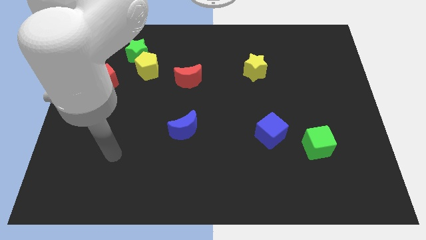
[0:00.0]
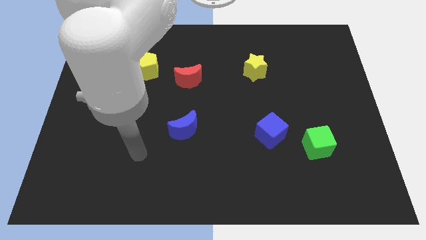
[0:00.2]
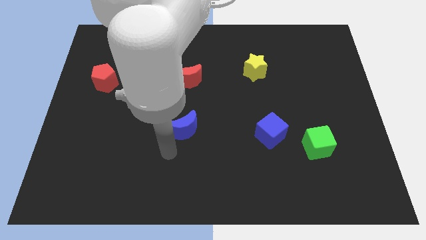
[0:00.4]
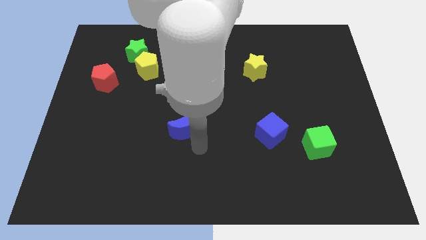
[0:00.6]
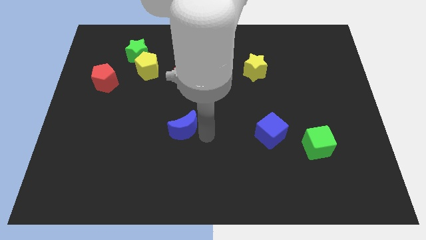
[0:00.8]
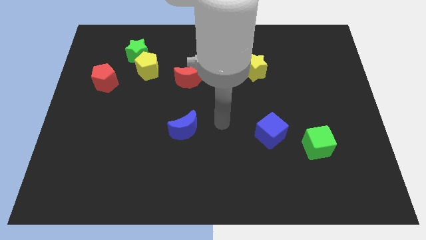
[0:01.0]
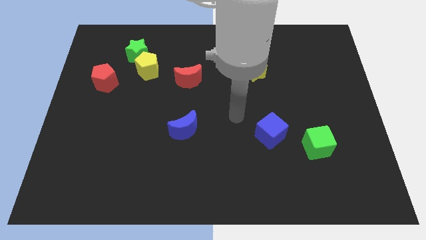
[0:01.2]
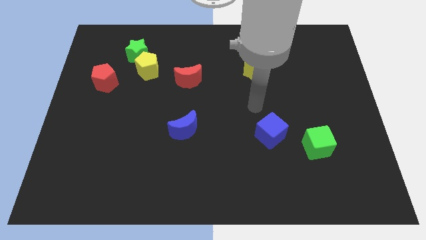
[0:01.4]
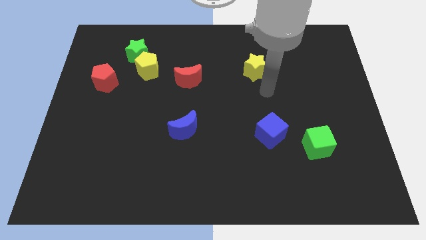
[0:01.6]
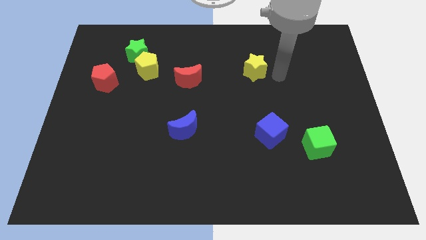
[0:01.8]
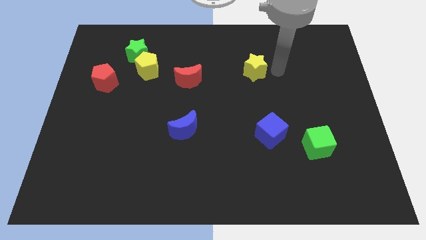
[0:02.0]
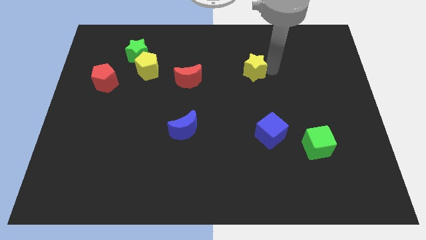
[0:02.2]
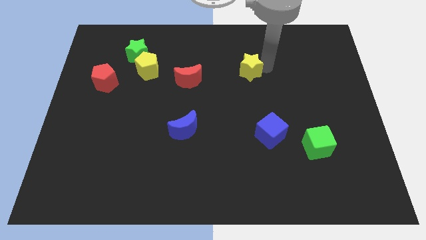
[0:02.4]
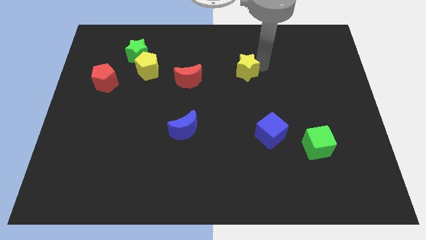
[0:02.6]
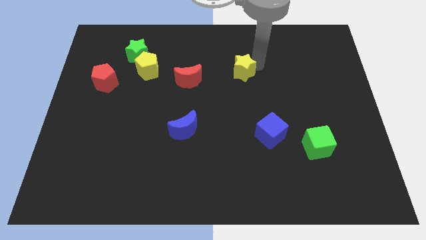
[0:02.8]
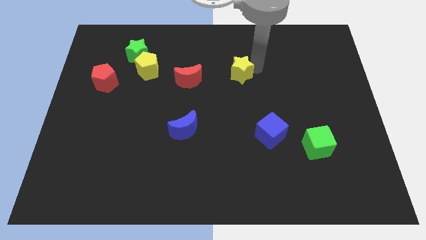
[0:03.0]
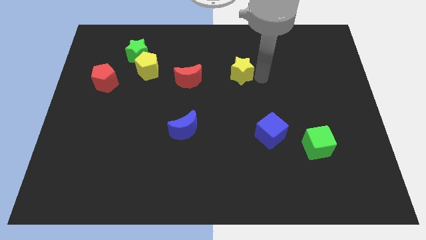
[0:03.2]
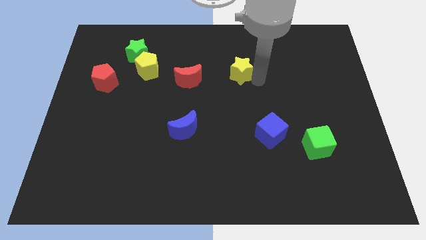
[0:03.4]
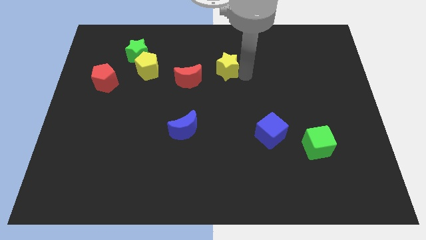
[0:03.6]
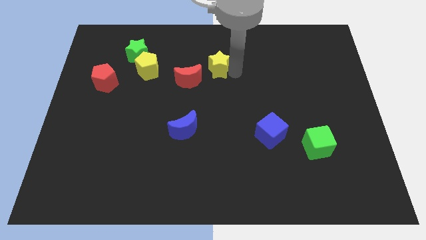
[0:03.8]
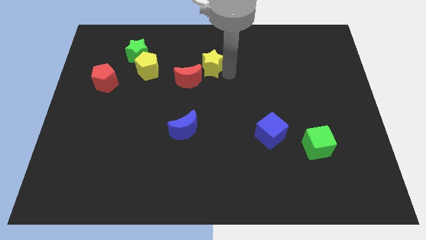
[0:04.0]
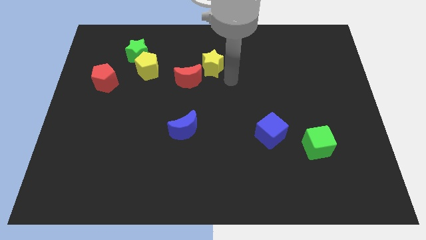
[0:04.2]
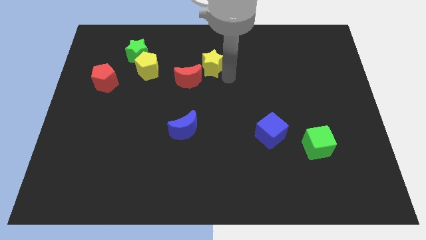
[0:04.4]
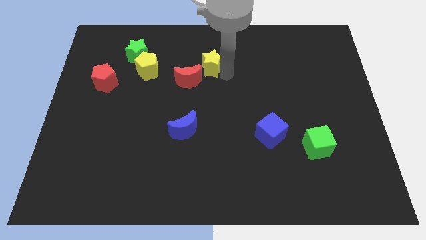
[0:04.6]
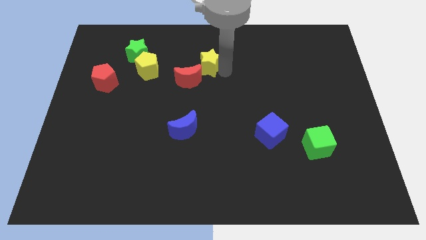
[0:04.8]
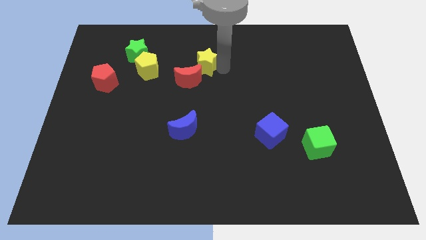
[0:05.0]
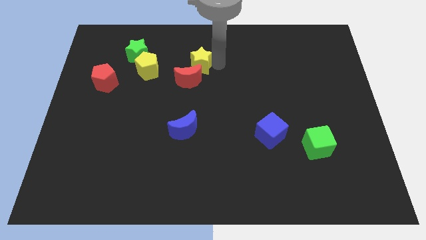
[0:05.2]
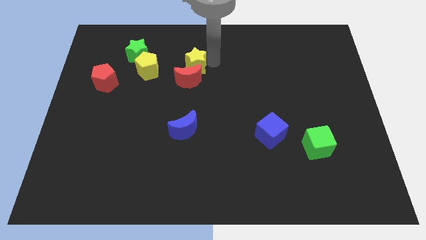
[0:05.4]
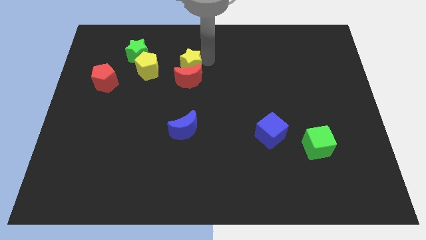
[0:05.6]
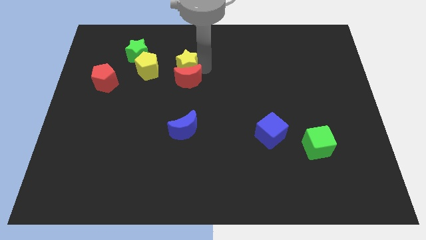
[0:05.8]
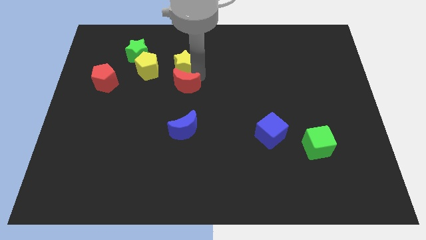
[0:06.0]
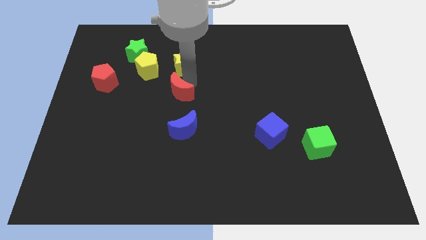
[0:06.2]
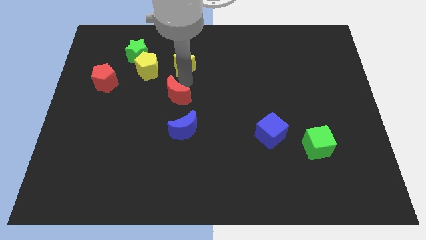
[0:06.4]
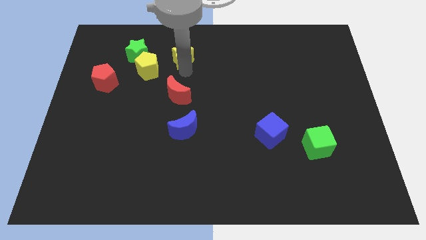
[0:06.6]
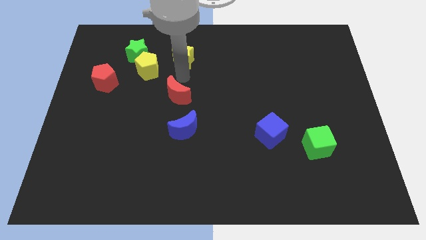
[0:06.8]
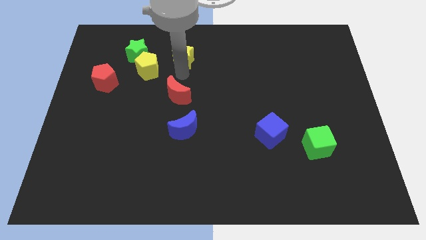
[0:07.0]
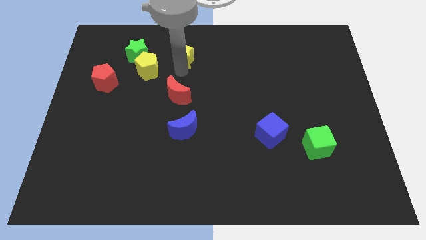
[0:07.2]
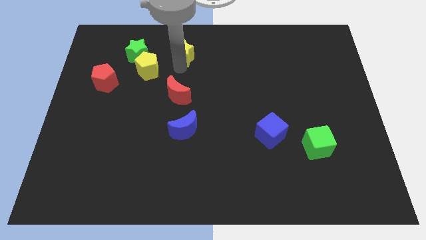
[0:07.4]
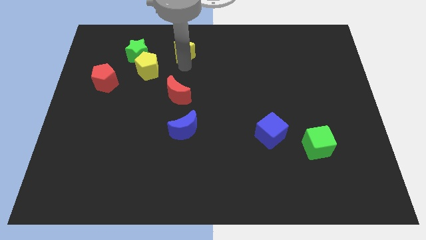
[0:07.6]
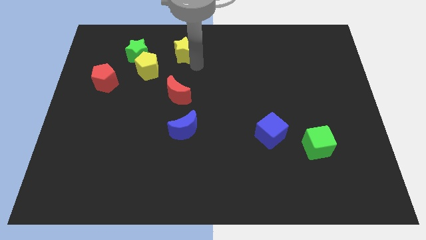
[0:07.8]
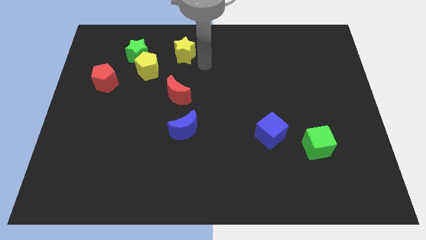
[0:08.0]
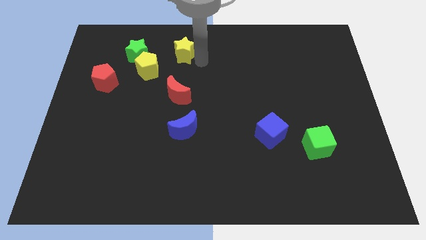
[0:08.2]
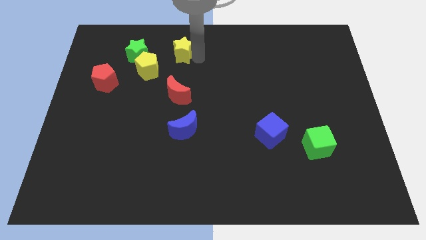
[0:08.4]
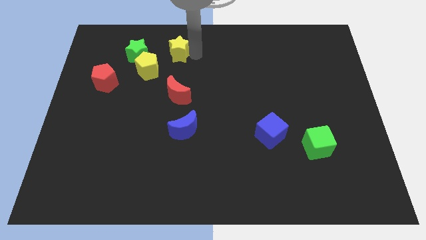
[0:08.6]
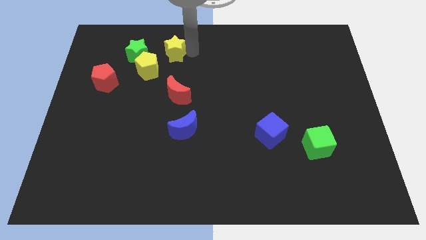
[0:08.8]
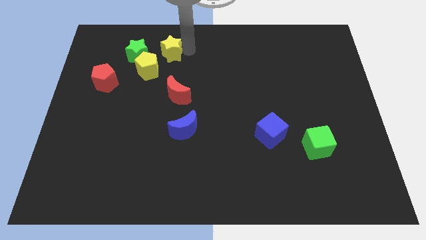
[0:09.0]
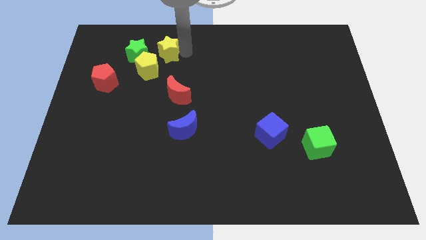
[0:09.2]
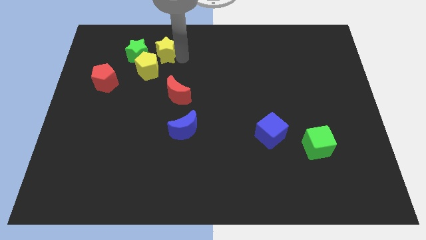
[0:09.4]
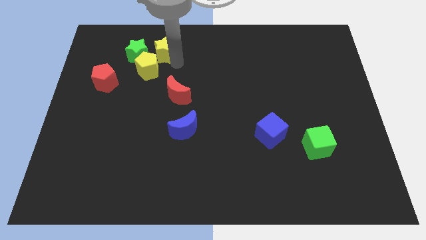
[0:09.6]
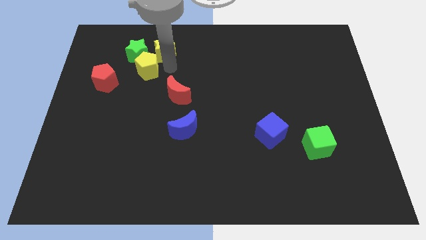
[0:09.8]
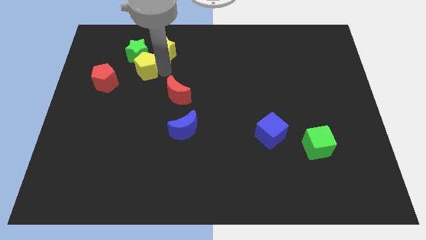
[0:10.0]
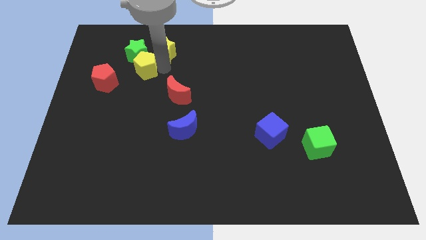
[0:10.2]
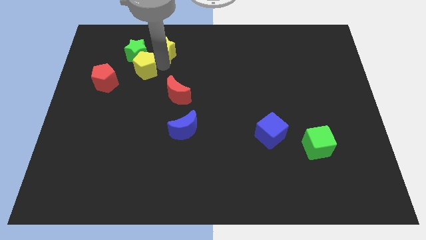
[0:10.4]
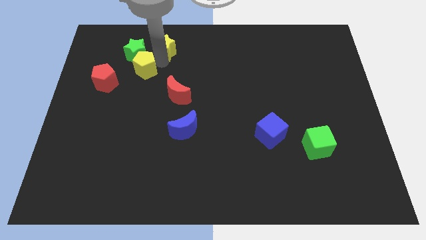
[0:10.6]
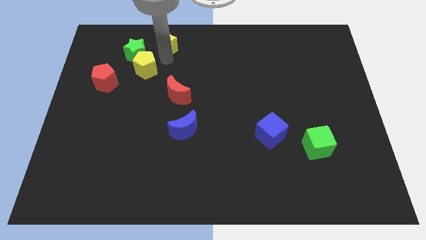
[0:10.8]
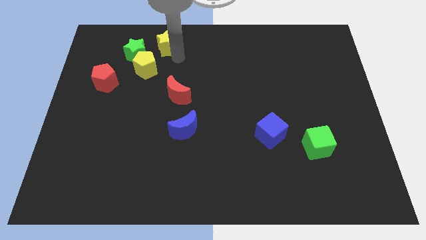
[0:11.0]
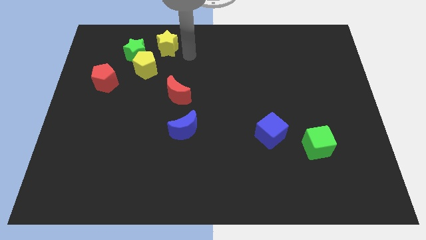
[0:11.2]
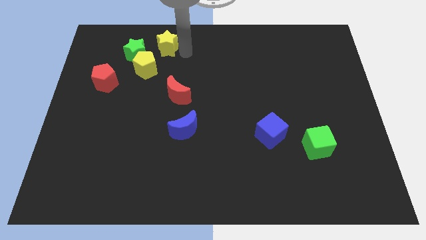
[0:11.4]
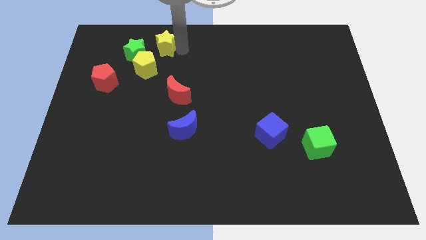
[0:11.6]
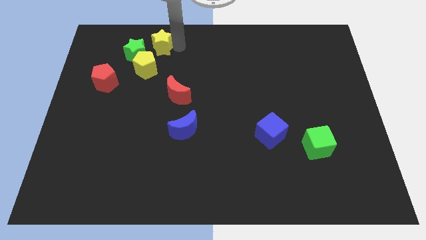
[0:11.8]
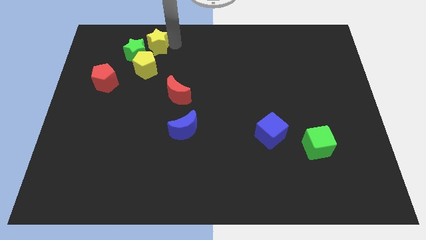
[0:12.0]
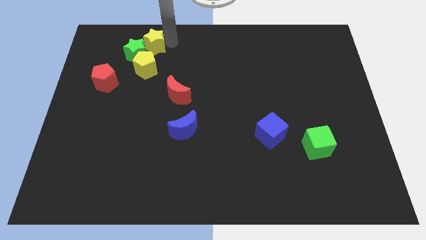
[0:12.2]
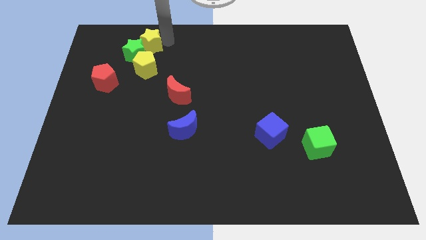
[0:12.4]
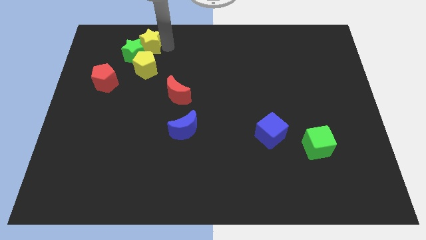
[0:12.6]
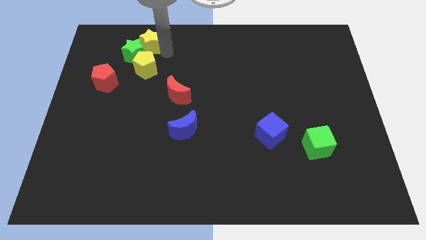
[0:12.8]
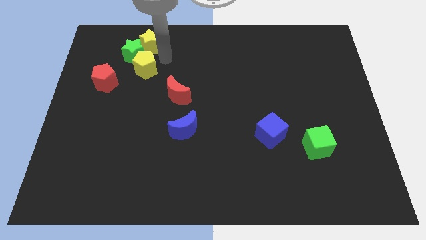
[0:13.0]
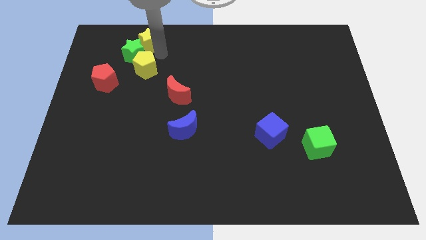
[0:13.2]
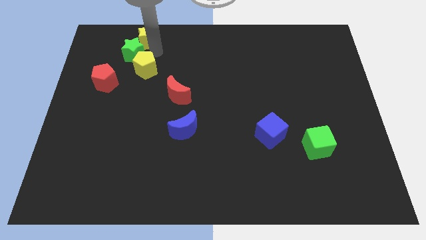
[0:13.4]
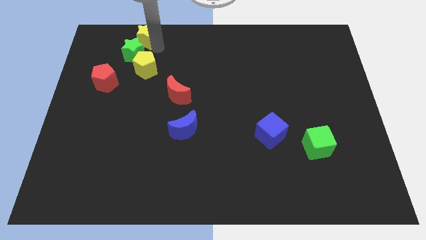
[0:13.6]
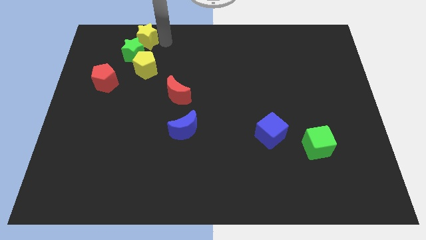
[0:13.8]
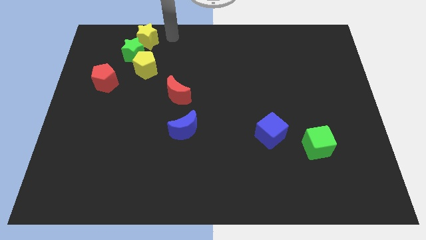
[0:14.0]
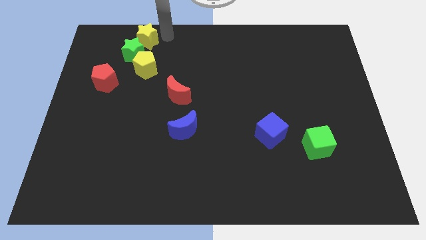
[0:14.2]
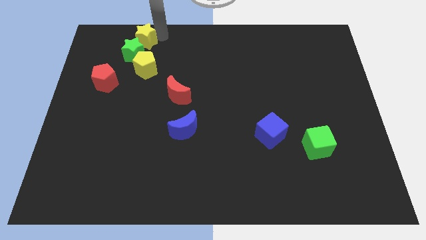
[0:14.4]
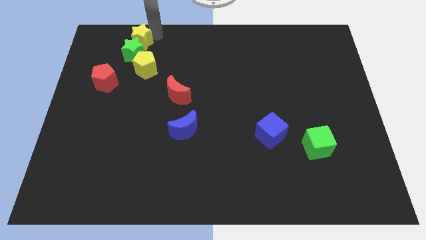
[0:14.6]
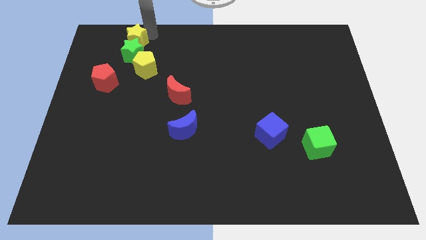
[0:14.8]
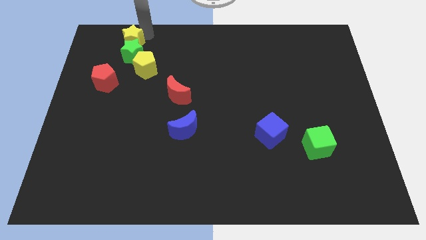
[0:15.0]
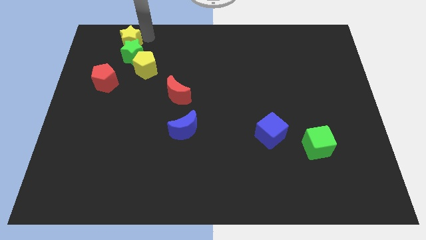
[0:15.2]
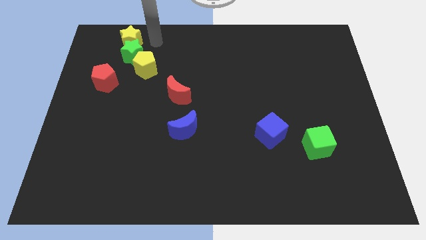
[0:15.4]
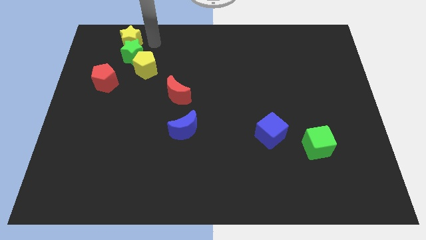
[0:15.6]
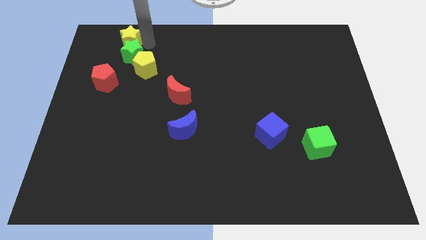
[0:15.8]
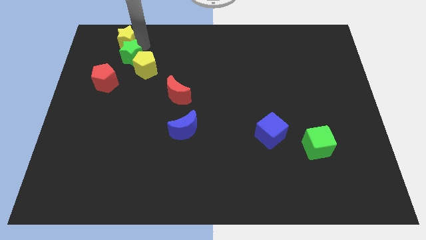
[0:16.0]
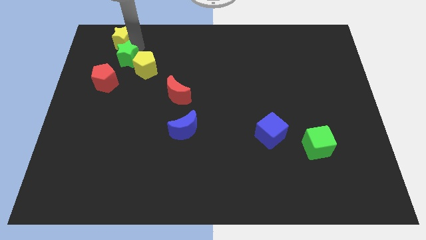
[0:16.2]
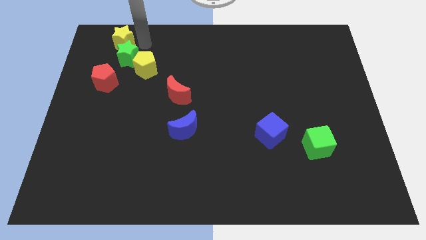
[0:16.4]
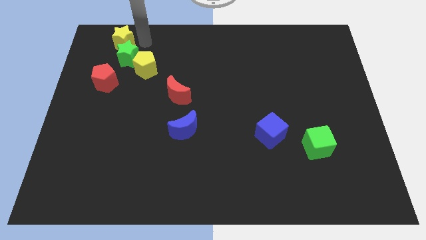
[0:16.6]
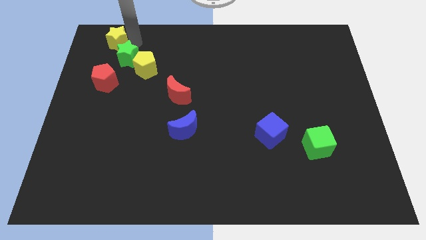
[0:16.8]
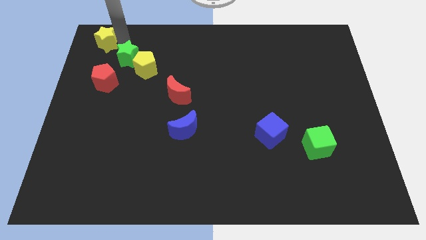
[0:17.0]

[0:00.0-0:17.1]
slide the yellow star to the upper left corner
